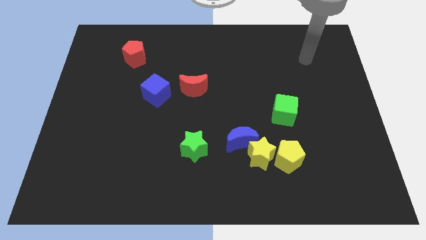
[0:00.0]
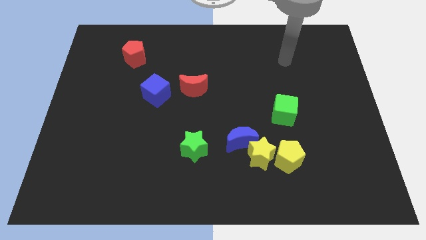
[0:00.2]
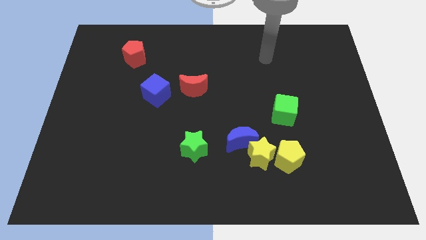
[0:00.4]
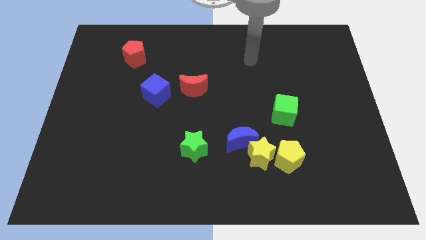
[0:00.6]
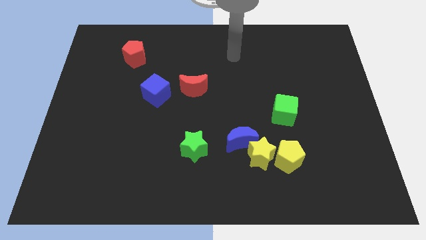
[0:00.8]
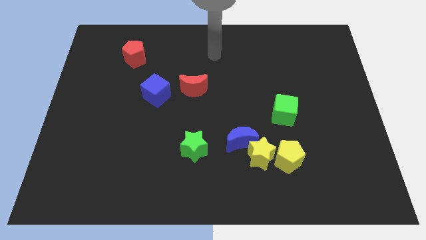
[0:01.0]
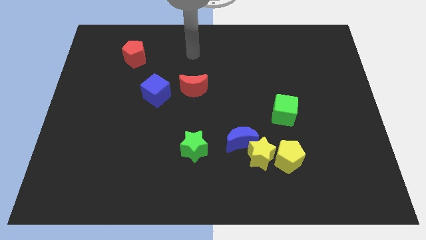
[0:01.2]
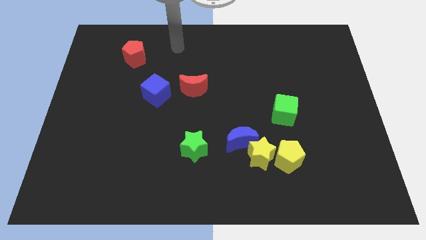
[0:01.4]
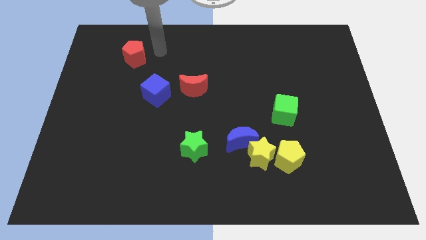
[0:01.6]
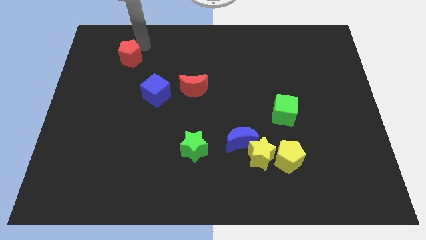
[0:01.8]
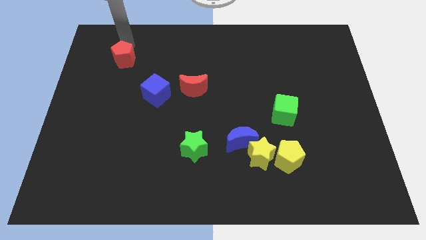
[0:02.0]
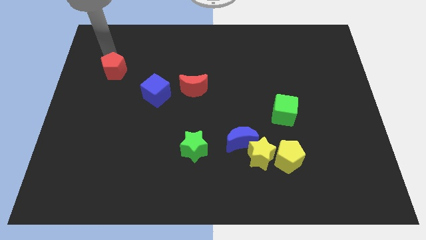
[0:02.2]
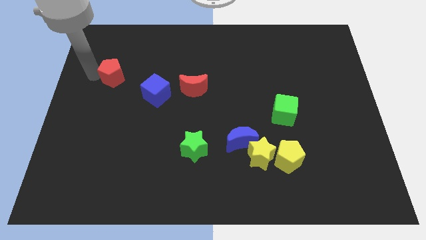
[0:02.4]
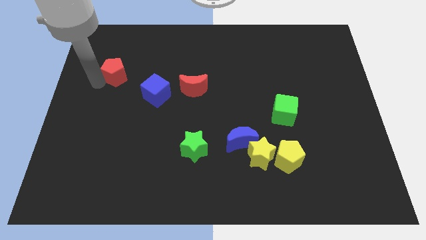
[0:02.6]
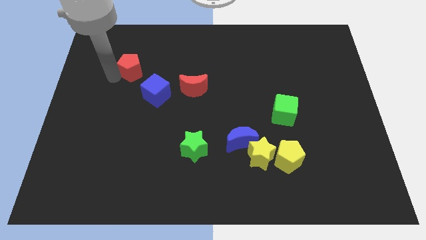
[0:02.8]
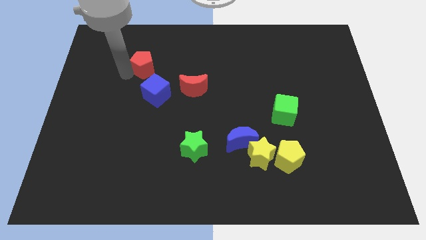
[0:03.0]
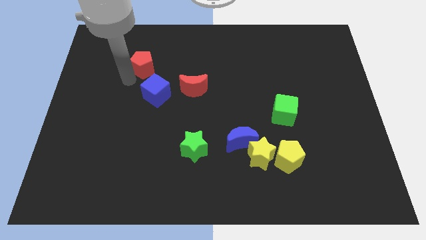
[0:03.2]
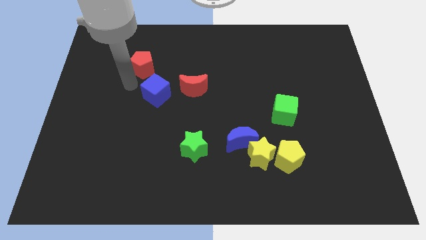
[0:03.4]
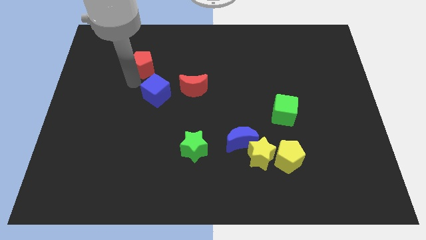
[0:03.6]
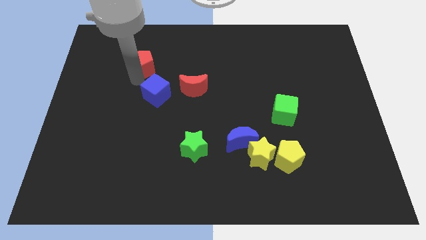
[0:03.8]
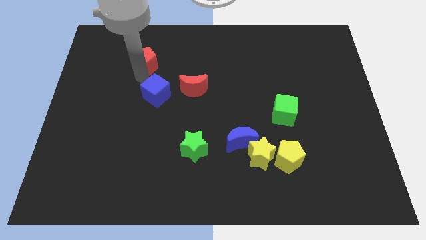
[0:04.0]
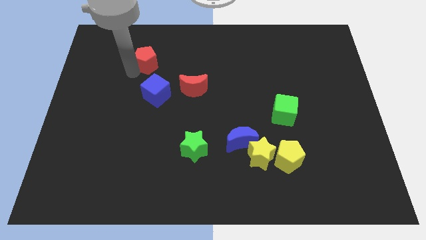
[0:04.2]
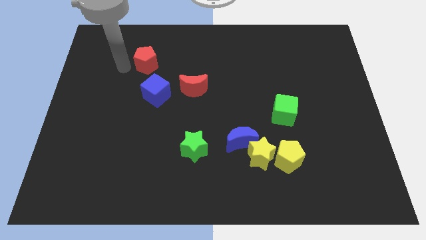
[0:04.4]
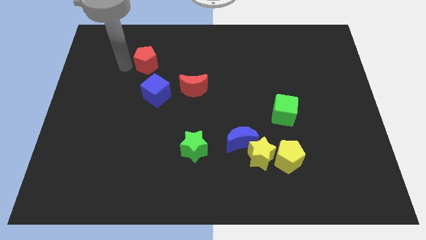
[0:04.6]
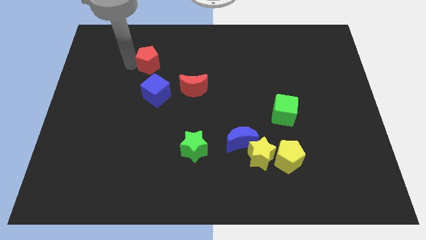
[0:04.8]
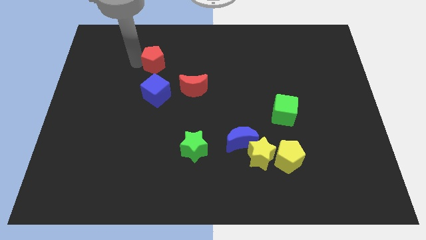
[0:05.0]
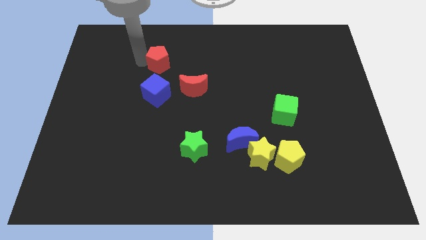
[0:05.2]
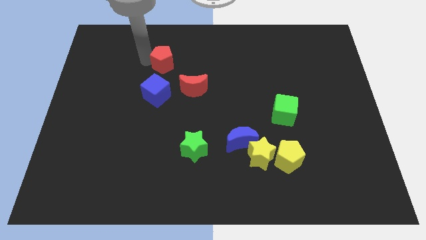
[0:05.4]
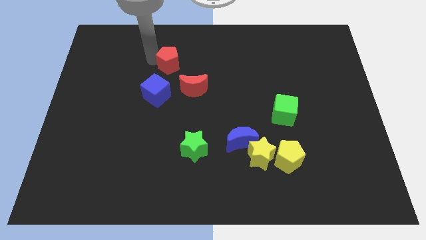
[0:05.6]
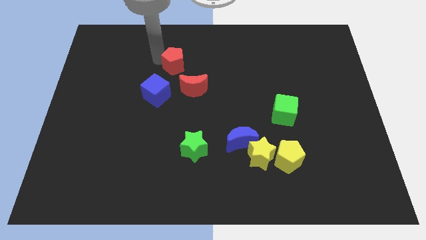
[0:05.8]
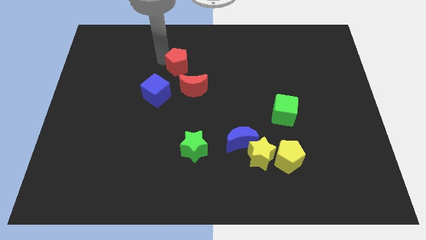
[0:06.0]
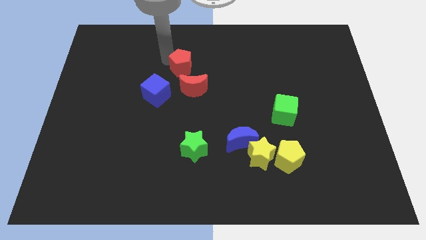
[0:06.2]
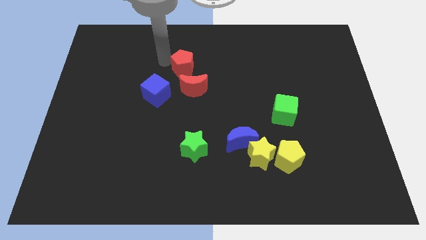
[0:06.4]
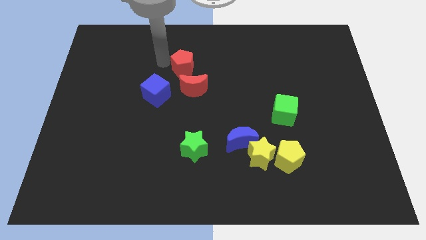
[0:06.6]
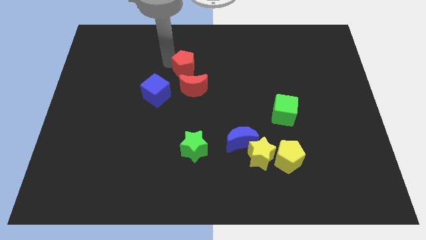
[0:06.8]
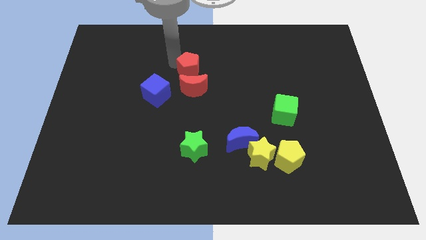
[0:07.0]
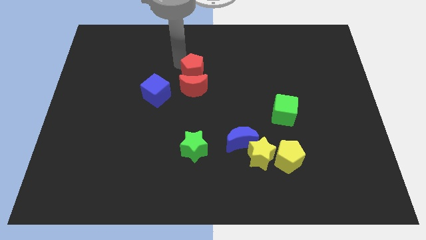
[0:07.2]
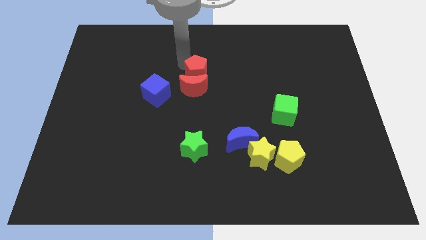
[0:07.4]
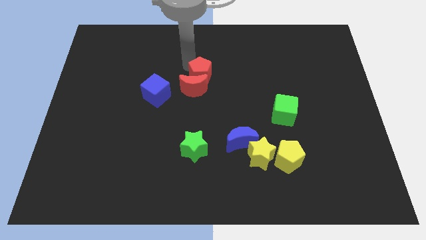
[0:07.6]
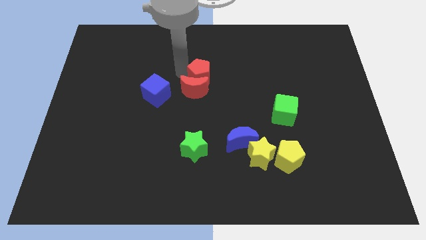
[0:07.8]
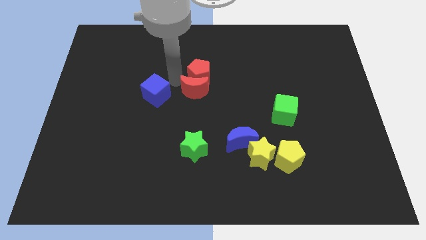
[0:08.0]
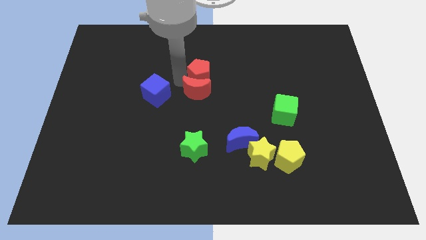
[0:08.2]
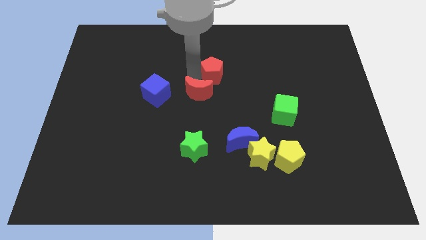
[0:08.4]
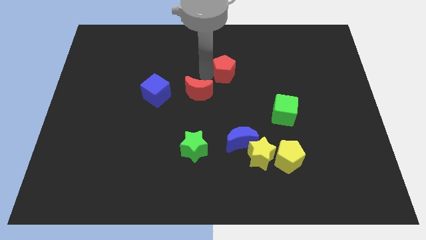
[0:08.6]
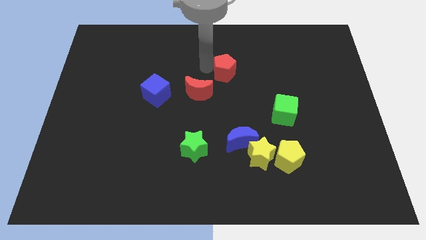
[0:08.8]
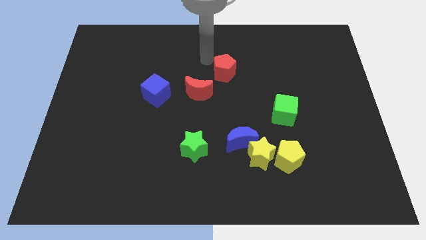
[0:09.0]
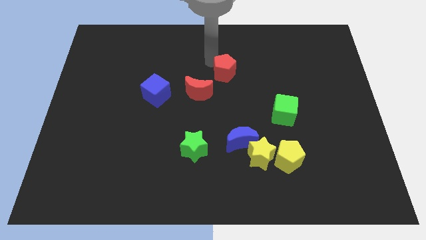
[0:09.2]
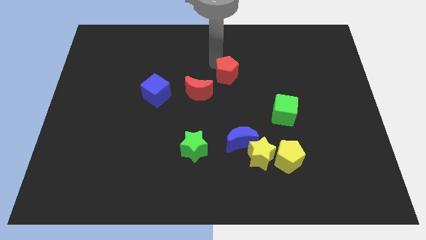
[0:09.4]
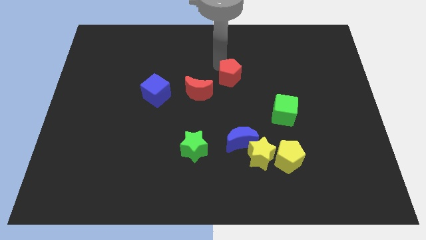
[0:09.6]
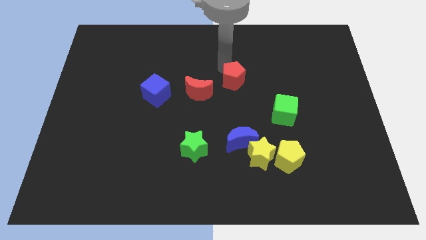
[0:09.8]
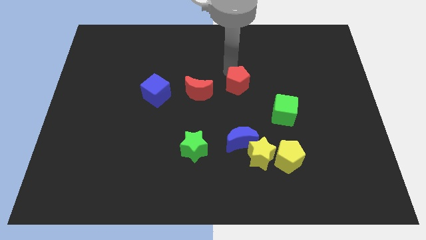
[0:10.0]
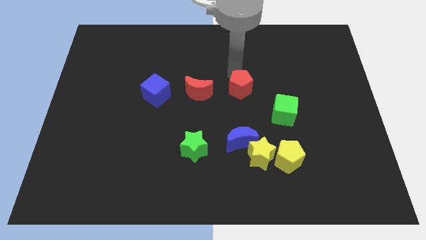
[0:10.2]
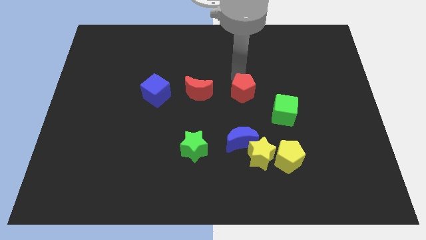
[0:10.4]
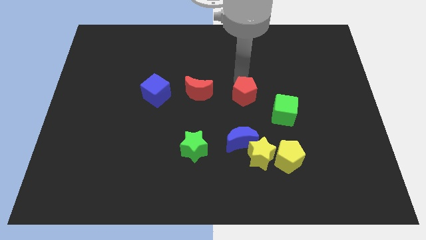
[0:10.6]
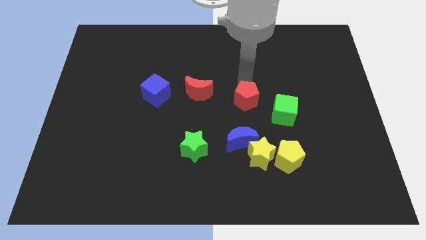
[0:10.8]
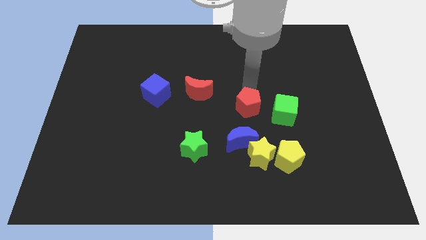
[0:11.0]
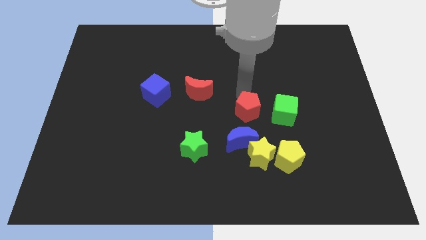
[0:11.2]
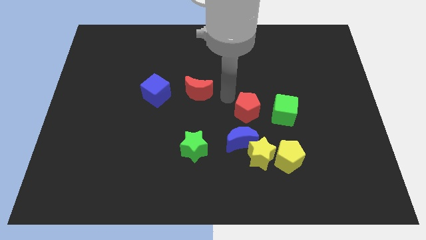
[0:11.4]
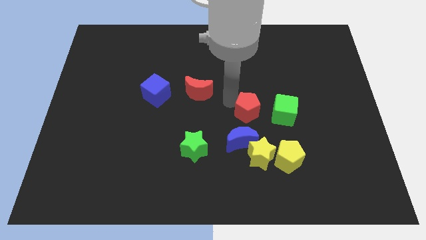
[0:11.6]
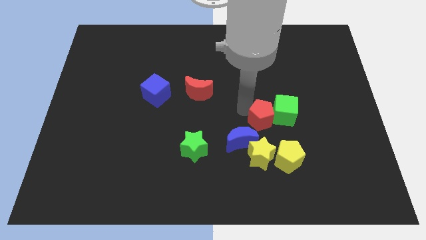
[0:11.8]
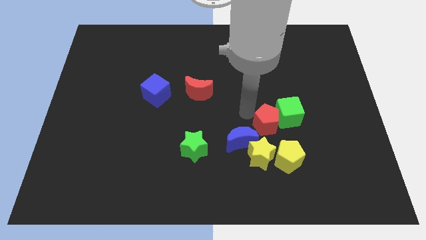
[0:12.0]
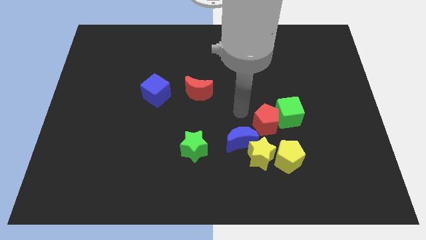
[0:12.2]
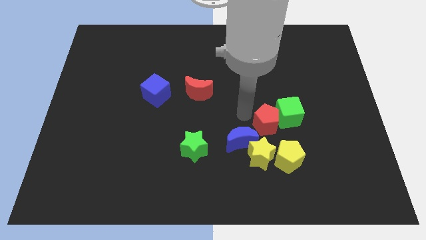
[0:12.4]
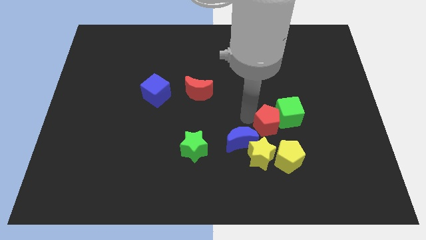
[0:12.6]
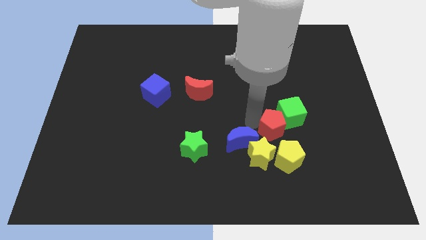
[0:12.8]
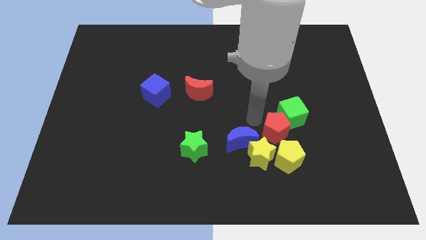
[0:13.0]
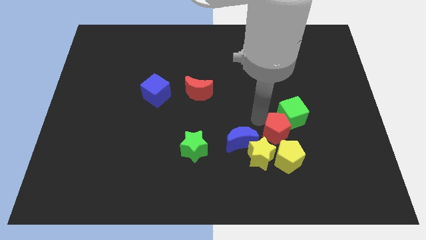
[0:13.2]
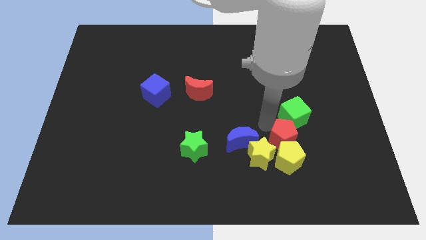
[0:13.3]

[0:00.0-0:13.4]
move the red pentagon to the right side of the yellow star

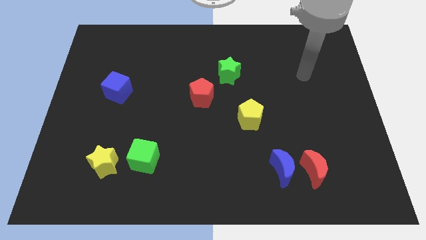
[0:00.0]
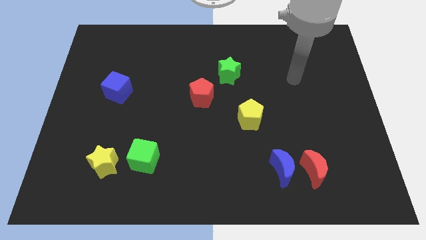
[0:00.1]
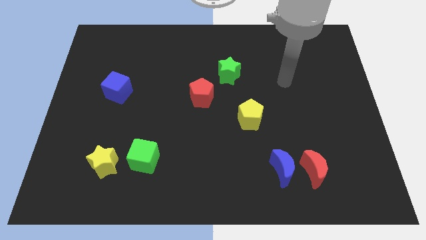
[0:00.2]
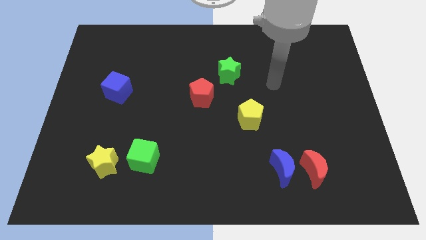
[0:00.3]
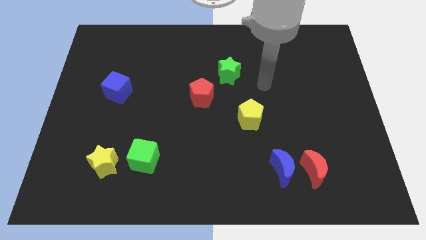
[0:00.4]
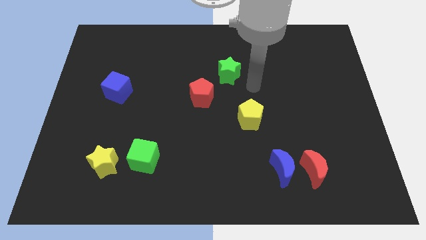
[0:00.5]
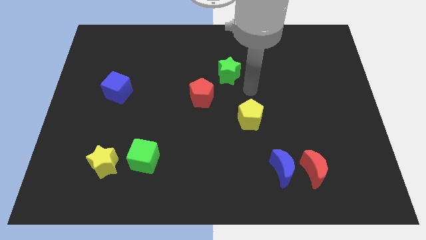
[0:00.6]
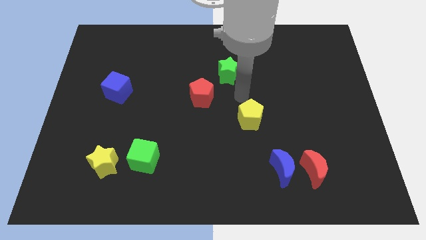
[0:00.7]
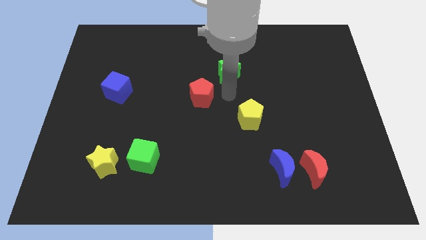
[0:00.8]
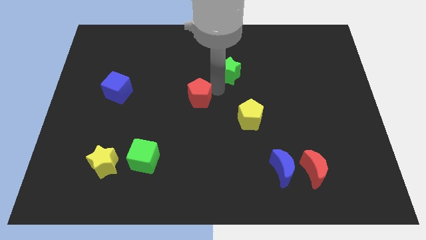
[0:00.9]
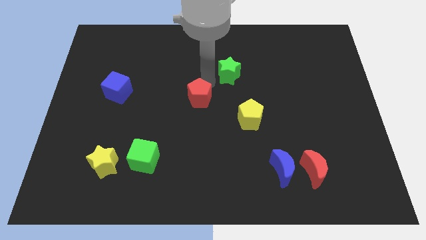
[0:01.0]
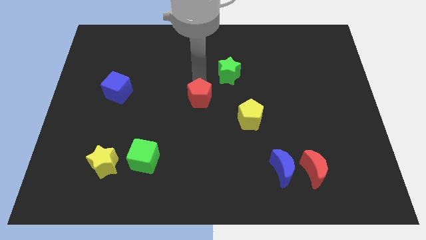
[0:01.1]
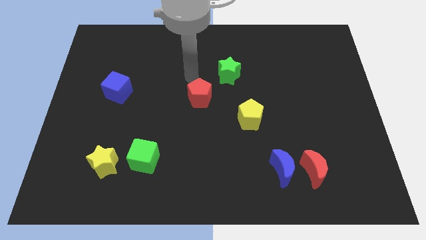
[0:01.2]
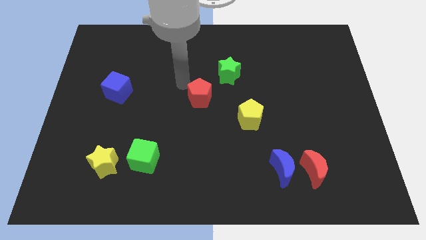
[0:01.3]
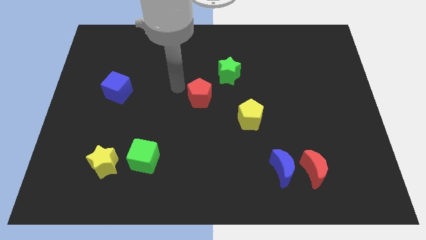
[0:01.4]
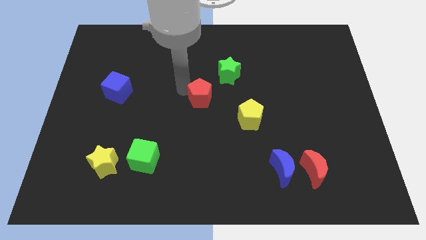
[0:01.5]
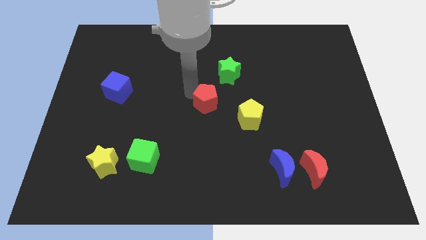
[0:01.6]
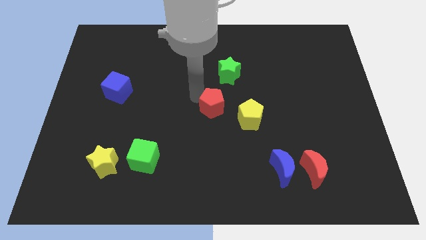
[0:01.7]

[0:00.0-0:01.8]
push the red pentagon below the green star
